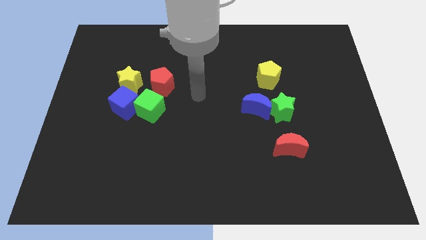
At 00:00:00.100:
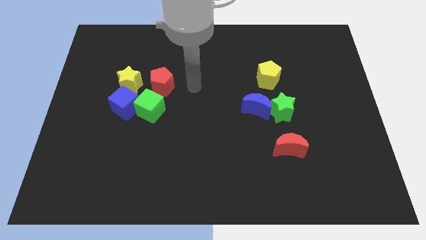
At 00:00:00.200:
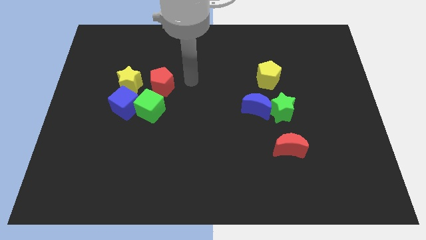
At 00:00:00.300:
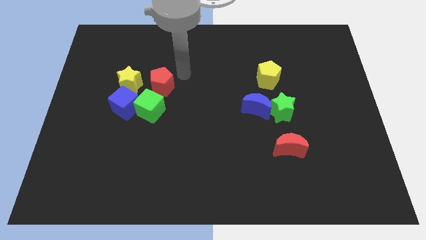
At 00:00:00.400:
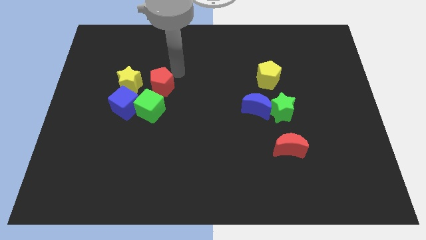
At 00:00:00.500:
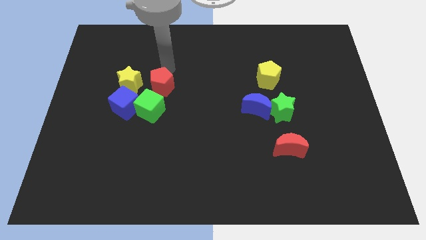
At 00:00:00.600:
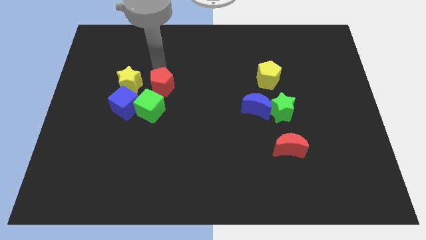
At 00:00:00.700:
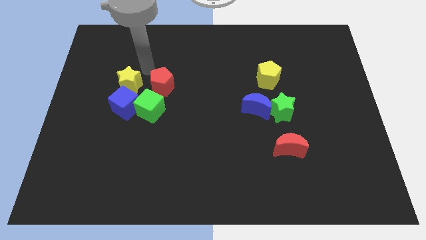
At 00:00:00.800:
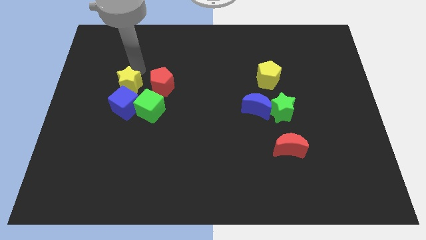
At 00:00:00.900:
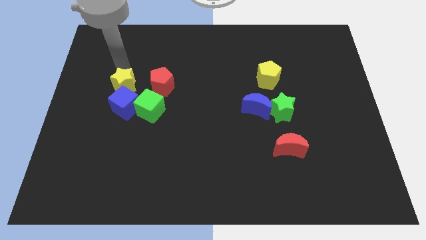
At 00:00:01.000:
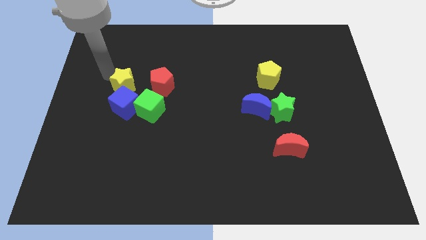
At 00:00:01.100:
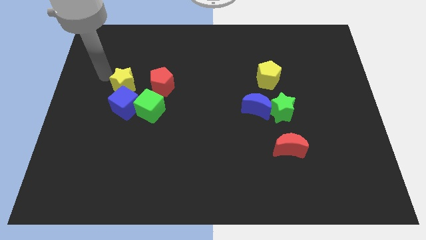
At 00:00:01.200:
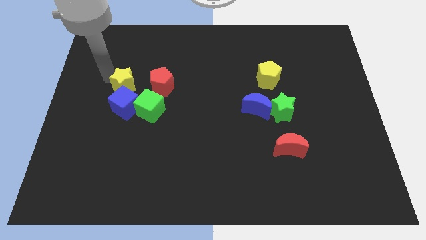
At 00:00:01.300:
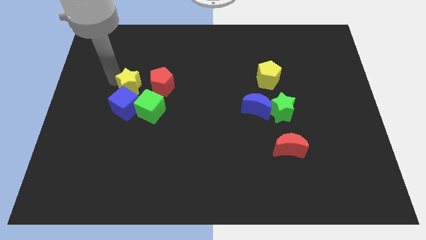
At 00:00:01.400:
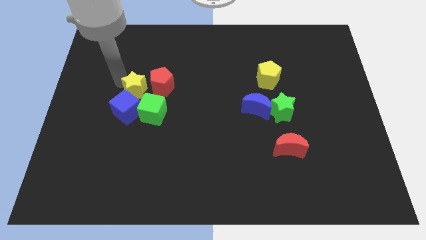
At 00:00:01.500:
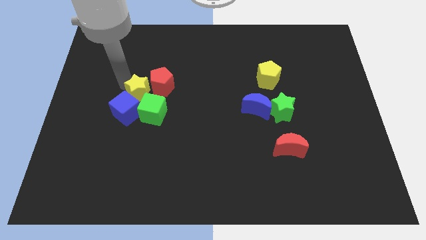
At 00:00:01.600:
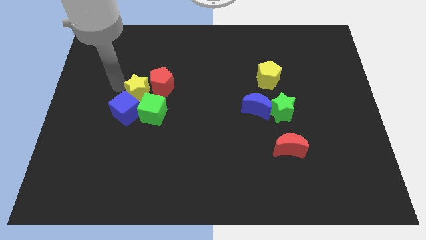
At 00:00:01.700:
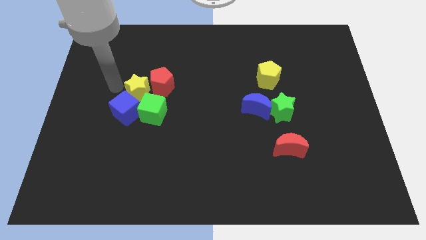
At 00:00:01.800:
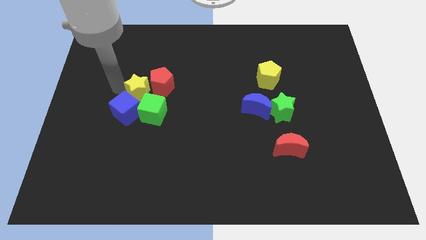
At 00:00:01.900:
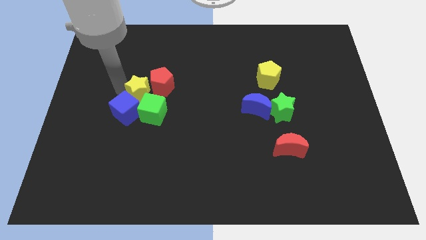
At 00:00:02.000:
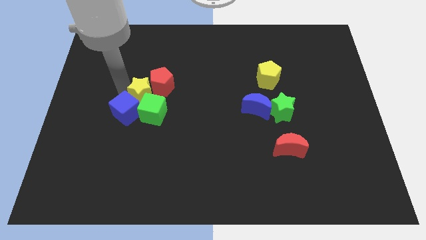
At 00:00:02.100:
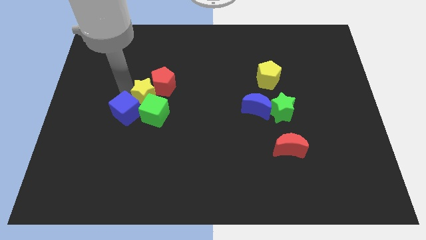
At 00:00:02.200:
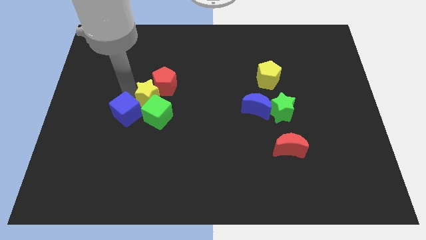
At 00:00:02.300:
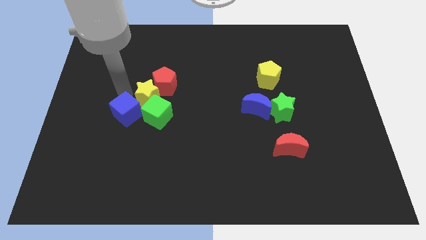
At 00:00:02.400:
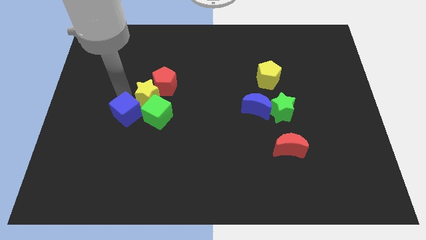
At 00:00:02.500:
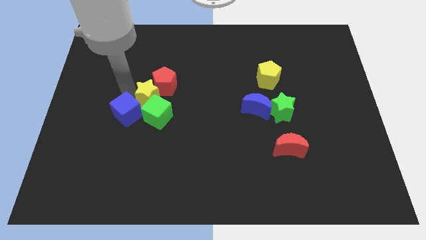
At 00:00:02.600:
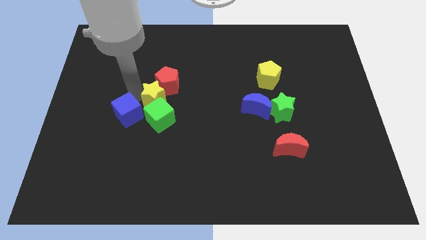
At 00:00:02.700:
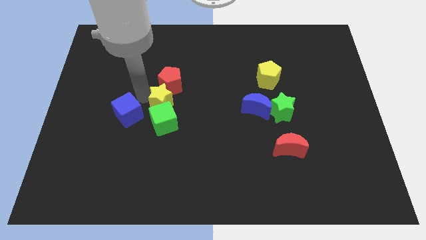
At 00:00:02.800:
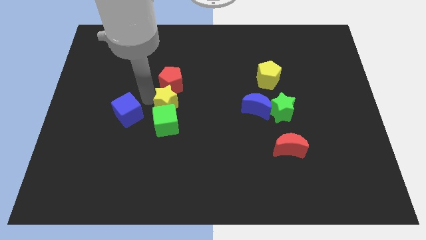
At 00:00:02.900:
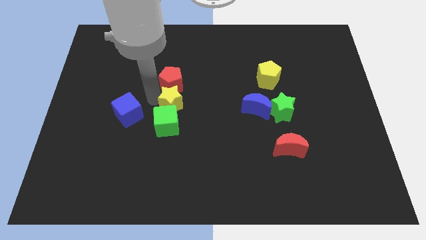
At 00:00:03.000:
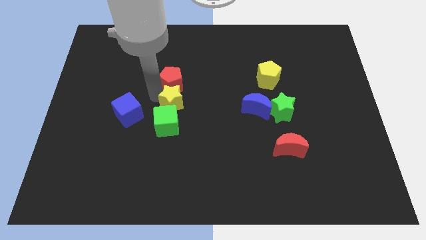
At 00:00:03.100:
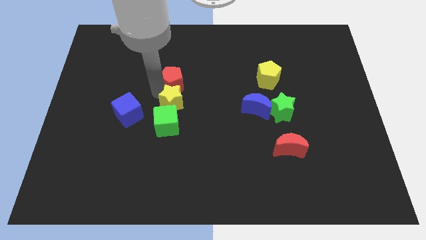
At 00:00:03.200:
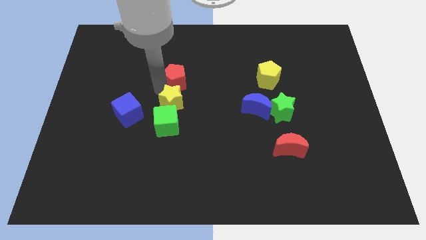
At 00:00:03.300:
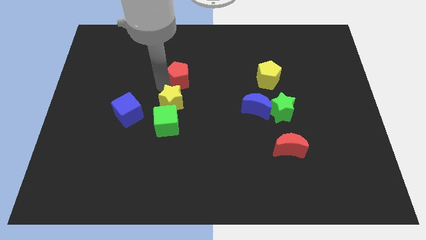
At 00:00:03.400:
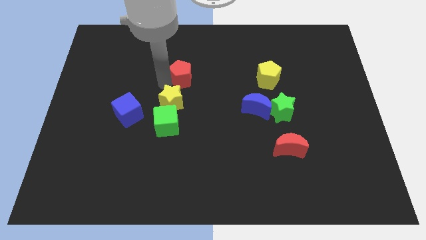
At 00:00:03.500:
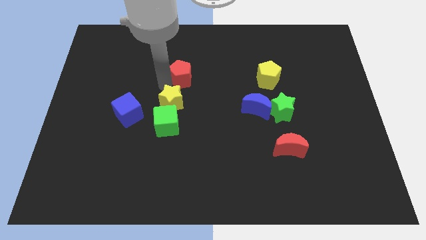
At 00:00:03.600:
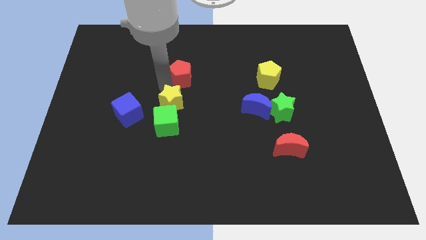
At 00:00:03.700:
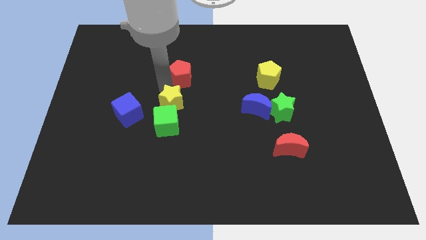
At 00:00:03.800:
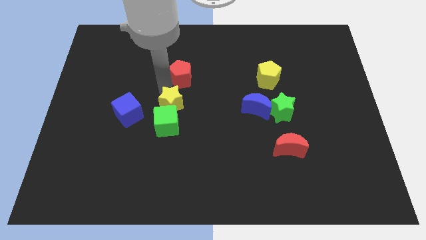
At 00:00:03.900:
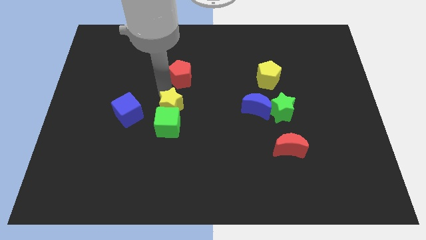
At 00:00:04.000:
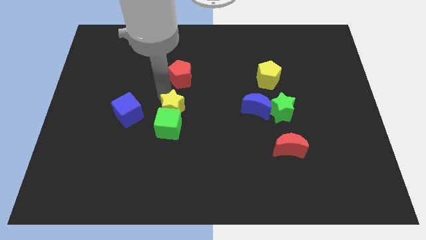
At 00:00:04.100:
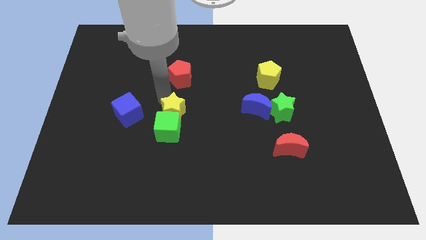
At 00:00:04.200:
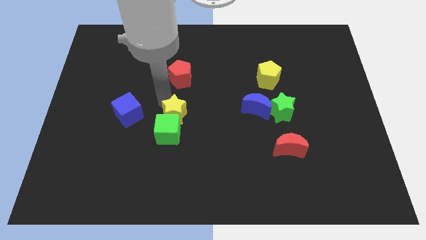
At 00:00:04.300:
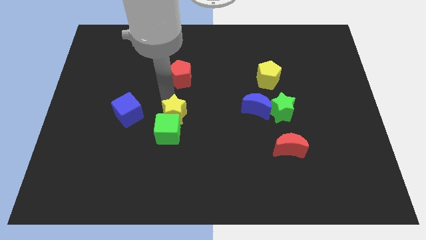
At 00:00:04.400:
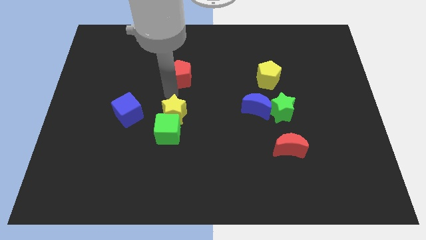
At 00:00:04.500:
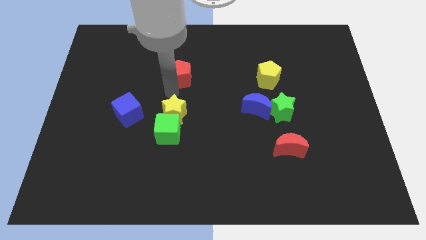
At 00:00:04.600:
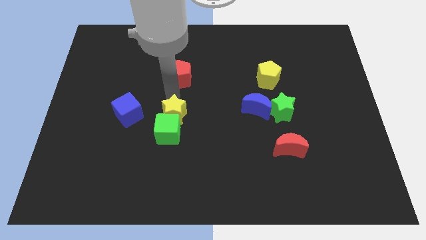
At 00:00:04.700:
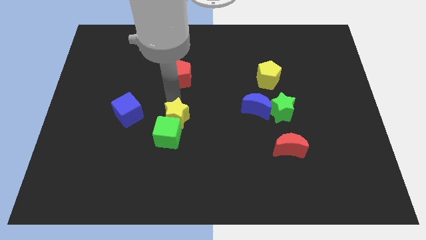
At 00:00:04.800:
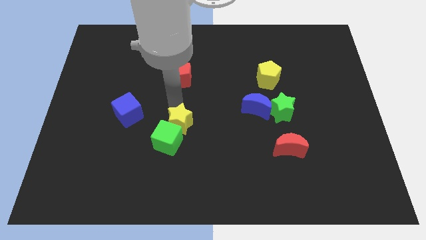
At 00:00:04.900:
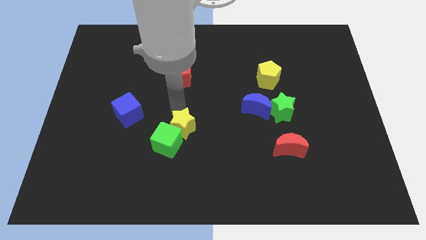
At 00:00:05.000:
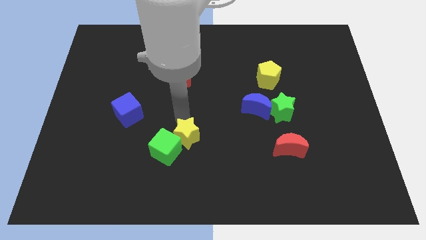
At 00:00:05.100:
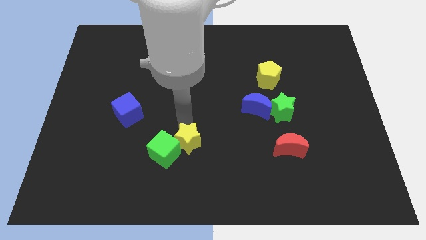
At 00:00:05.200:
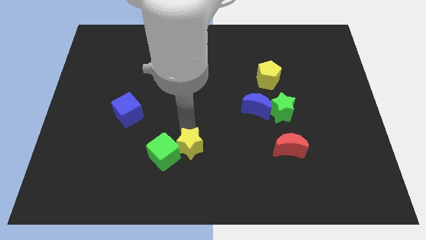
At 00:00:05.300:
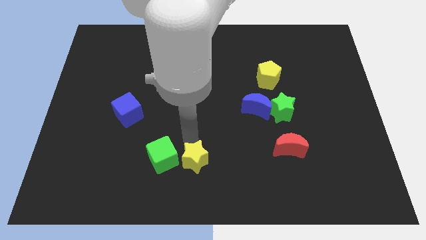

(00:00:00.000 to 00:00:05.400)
put the yellow star to the bottom side
